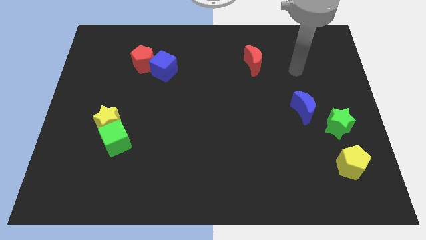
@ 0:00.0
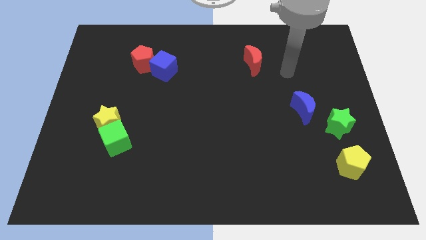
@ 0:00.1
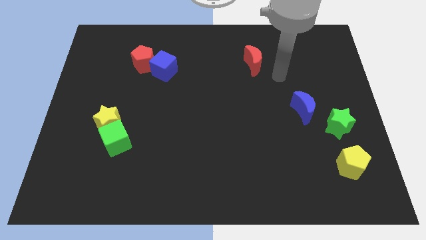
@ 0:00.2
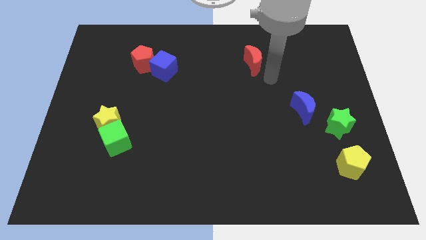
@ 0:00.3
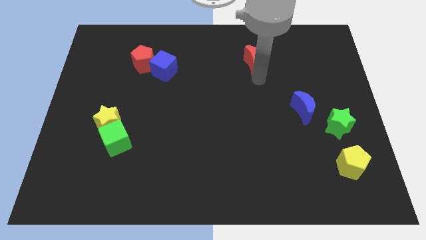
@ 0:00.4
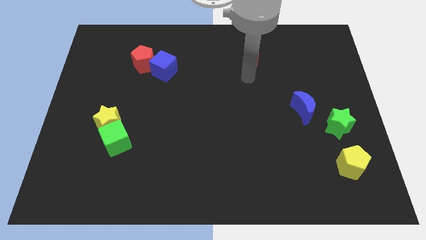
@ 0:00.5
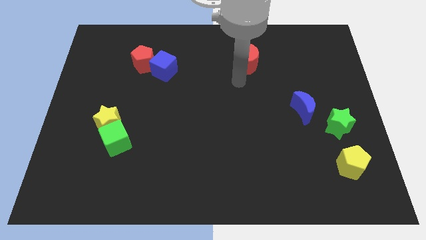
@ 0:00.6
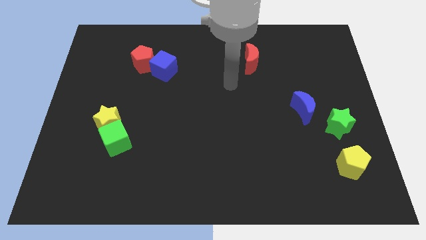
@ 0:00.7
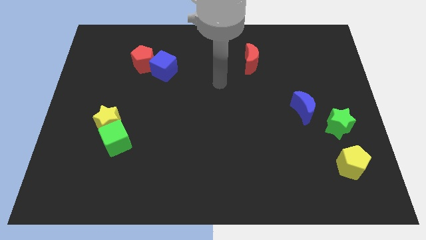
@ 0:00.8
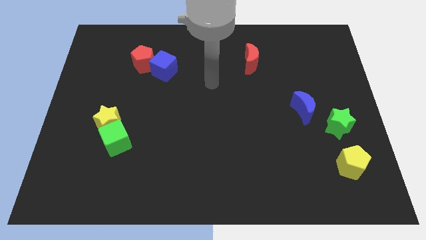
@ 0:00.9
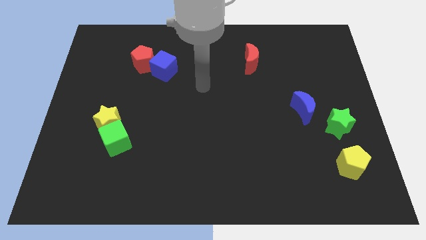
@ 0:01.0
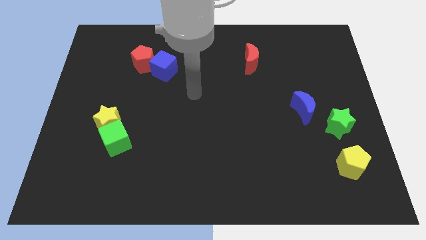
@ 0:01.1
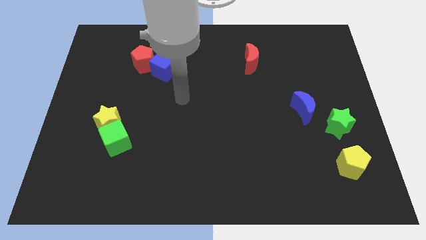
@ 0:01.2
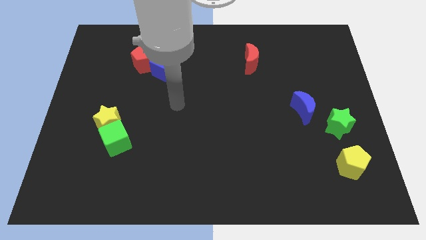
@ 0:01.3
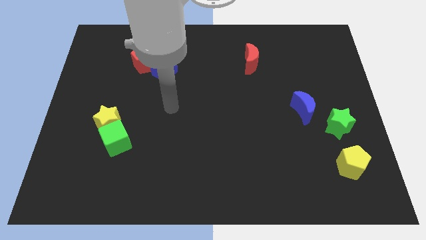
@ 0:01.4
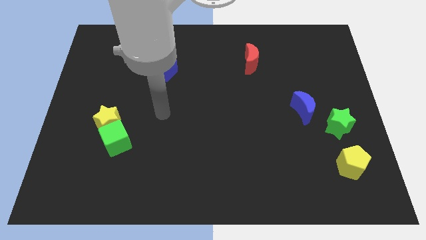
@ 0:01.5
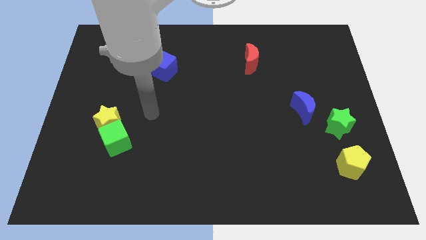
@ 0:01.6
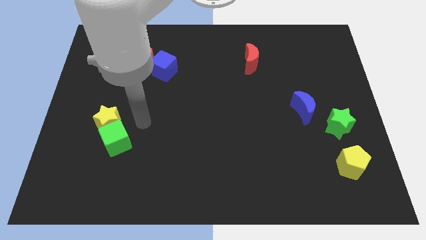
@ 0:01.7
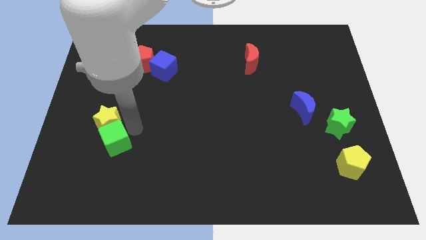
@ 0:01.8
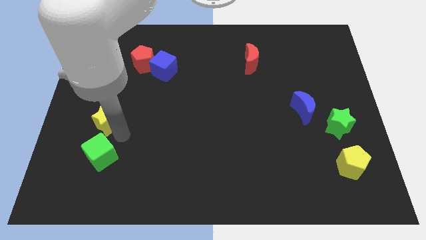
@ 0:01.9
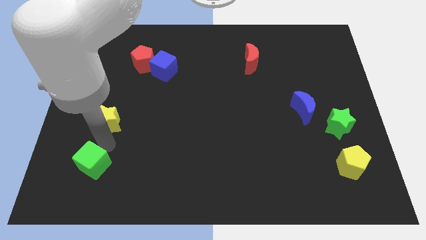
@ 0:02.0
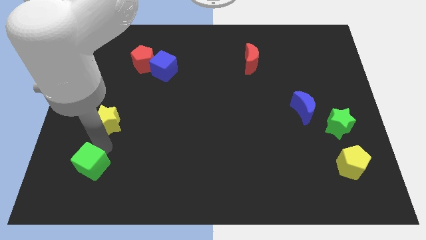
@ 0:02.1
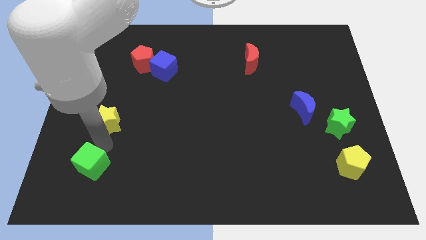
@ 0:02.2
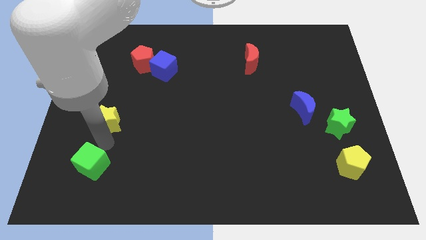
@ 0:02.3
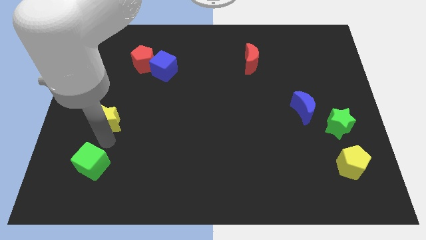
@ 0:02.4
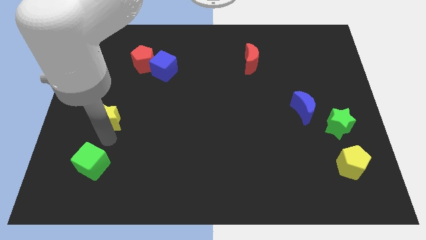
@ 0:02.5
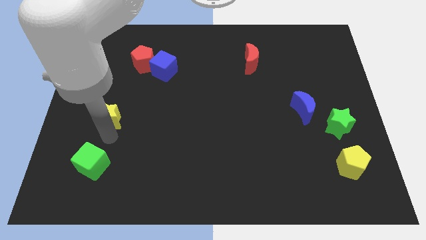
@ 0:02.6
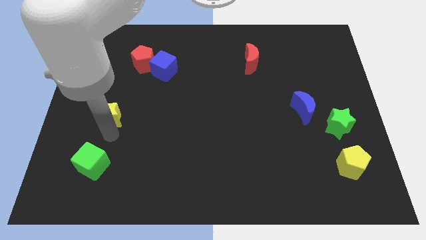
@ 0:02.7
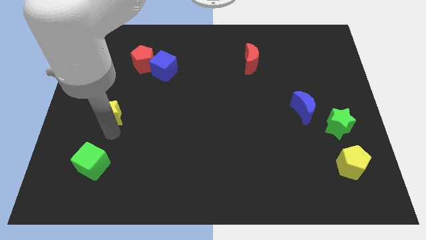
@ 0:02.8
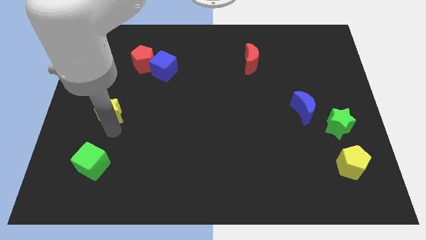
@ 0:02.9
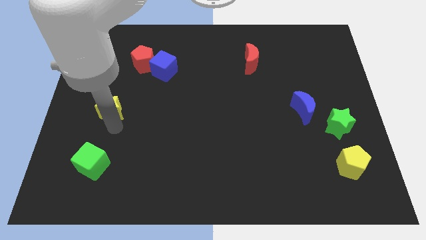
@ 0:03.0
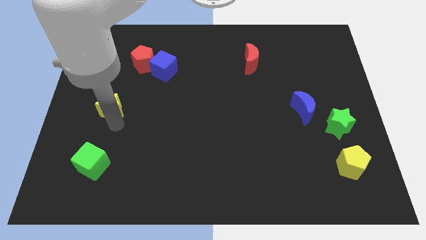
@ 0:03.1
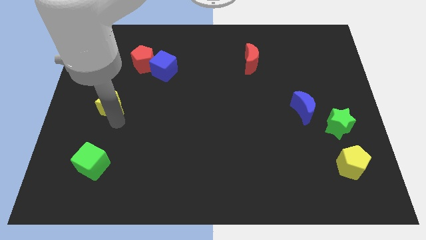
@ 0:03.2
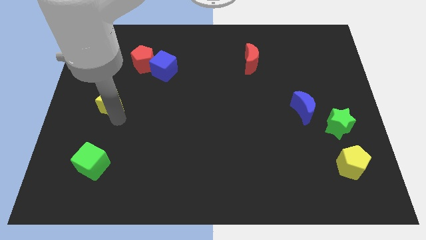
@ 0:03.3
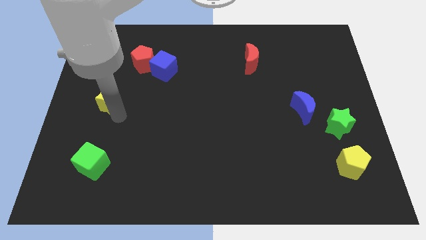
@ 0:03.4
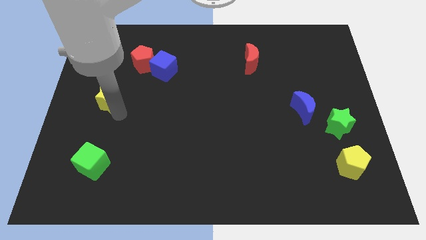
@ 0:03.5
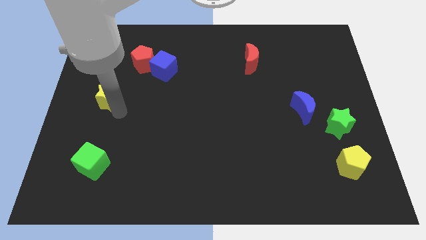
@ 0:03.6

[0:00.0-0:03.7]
slightly move the yellow star up

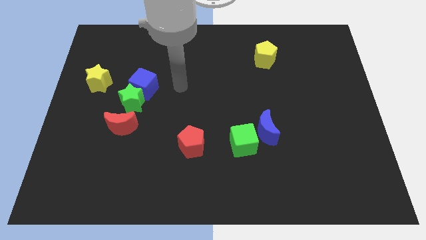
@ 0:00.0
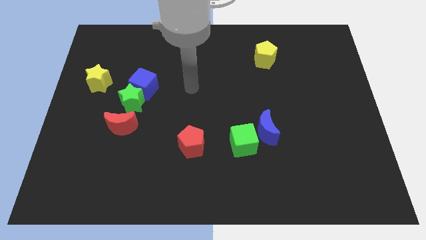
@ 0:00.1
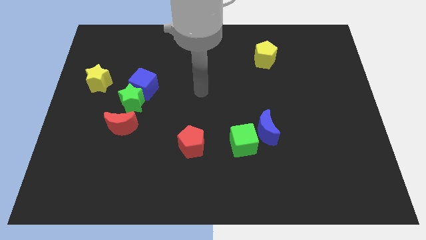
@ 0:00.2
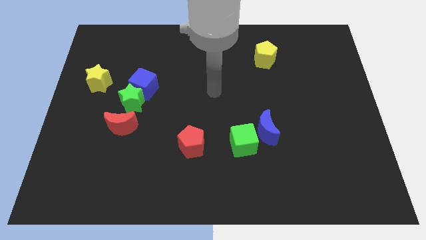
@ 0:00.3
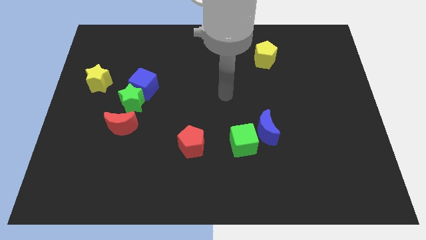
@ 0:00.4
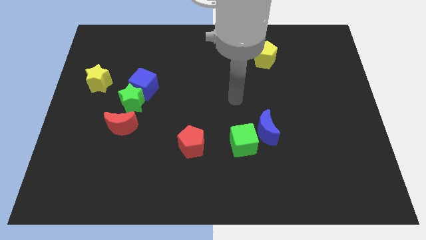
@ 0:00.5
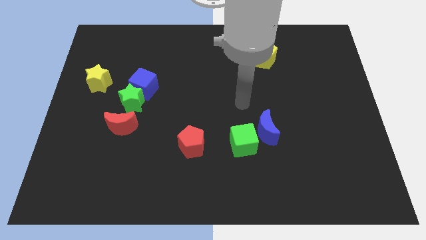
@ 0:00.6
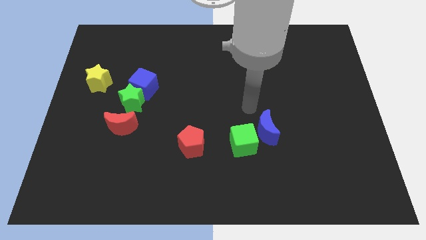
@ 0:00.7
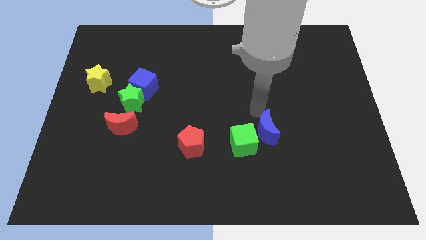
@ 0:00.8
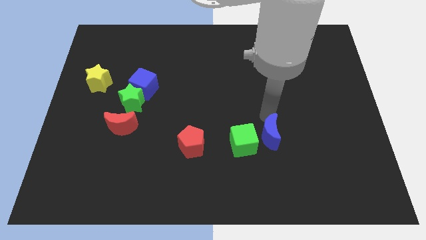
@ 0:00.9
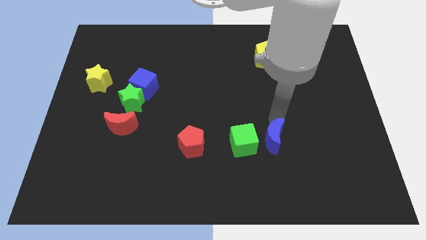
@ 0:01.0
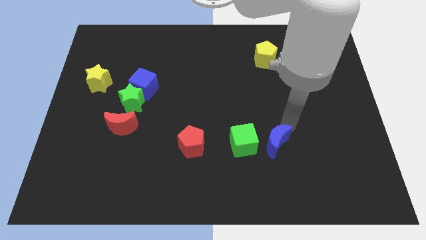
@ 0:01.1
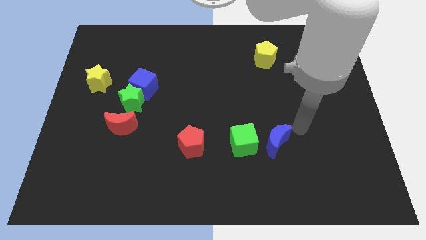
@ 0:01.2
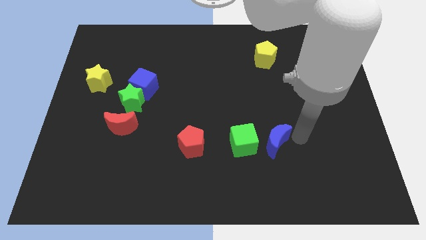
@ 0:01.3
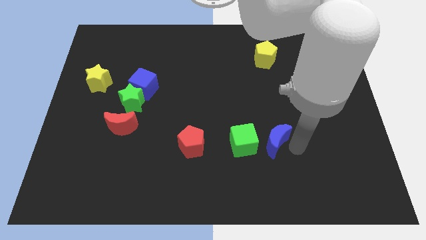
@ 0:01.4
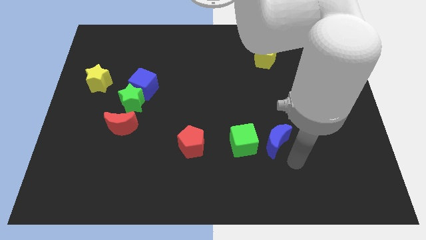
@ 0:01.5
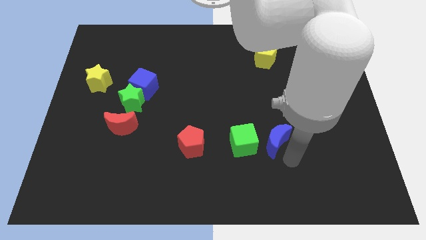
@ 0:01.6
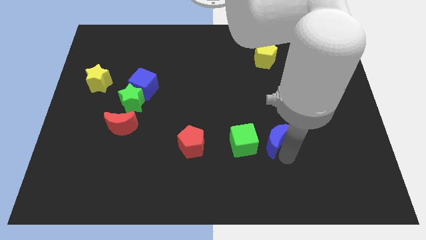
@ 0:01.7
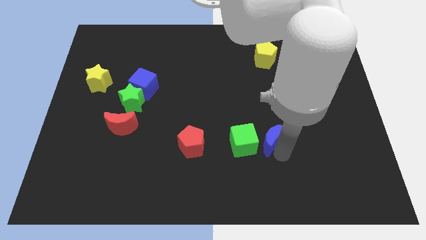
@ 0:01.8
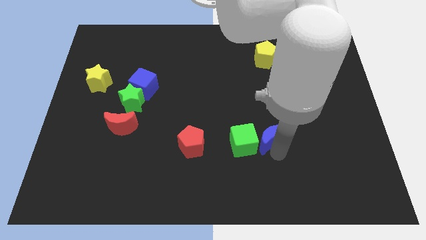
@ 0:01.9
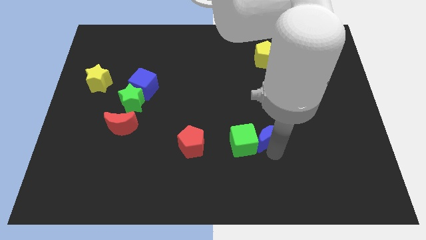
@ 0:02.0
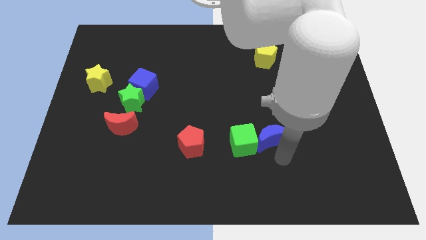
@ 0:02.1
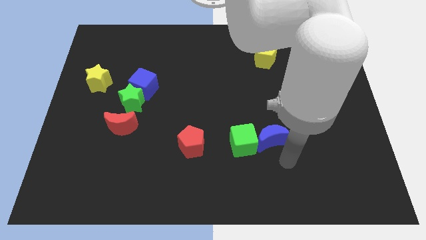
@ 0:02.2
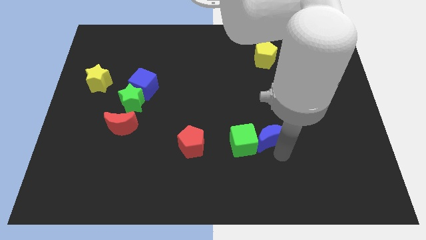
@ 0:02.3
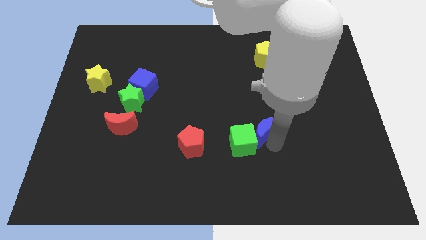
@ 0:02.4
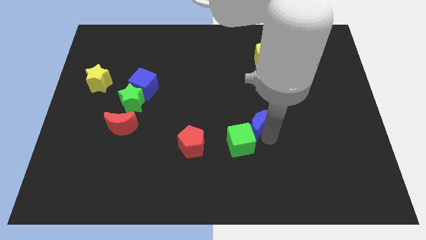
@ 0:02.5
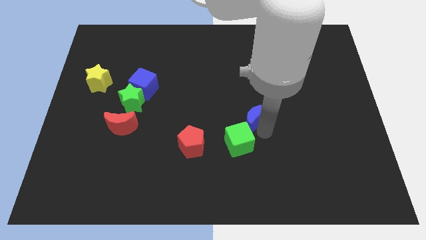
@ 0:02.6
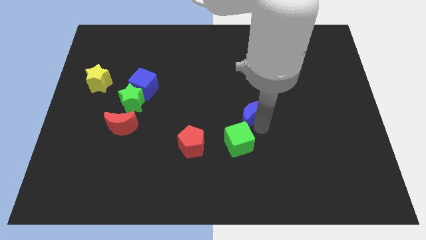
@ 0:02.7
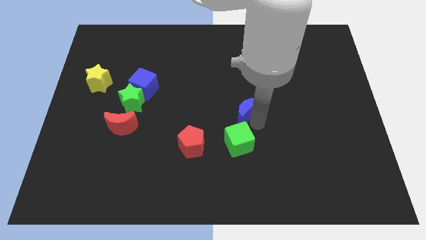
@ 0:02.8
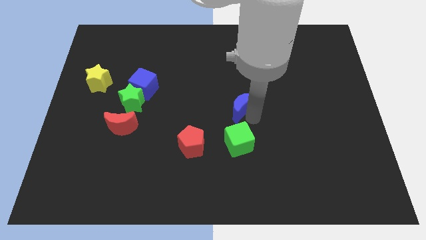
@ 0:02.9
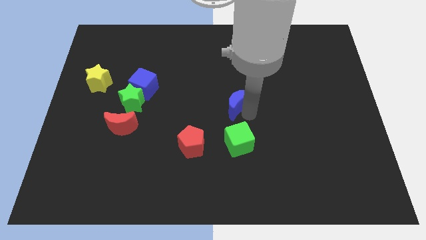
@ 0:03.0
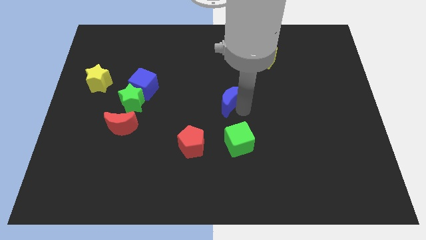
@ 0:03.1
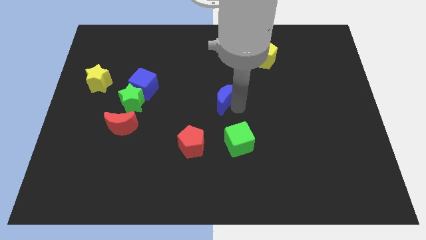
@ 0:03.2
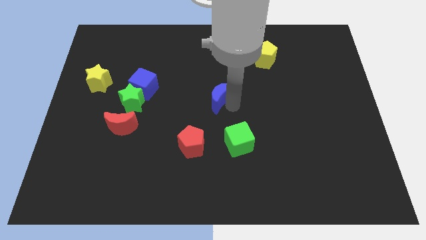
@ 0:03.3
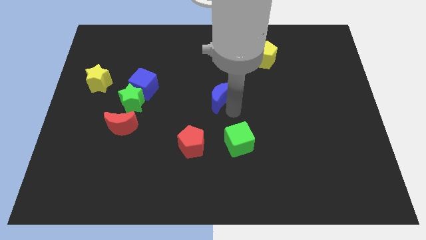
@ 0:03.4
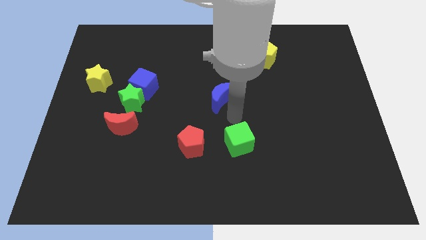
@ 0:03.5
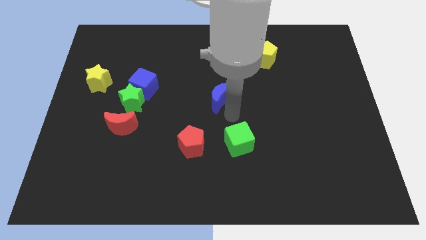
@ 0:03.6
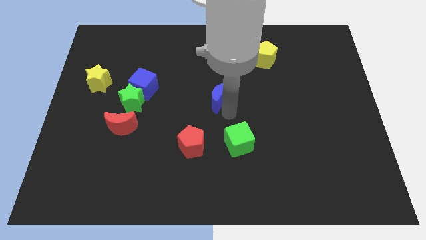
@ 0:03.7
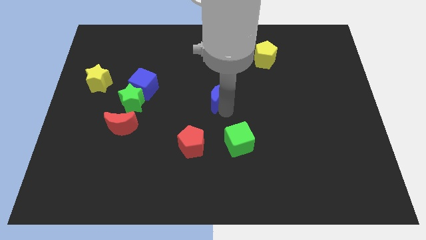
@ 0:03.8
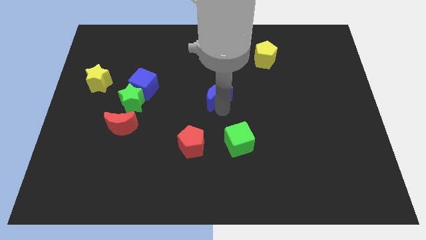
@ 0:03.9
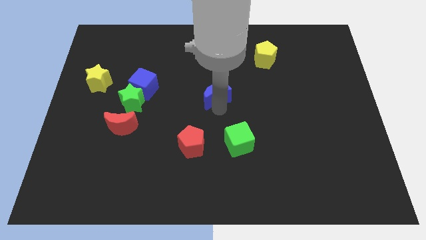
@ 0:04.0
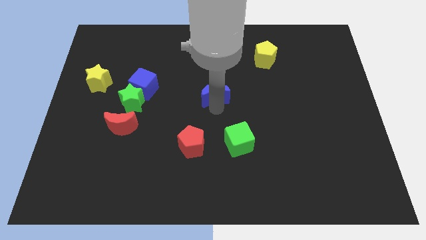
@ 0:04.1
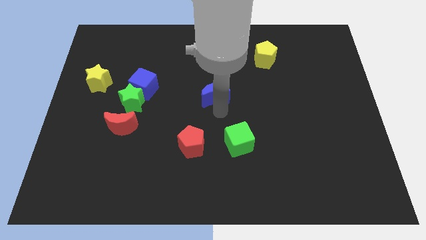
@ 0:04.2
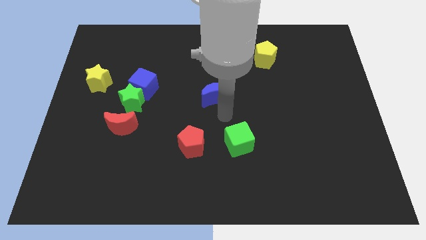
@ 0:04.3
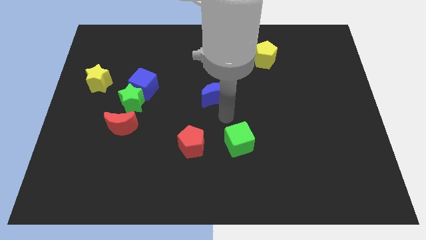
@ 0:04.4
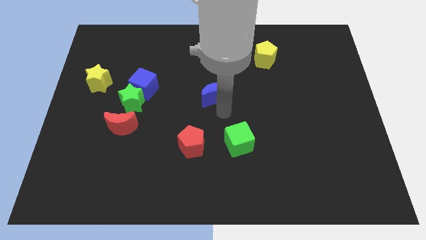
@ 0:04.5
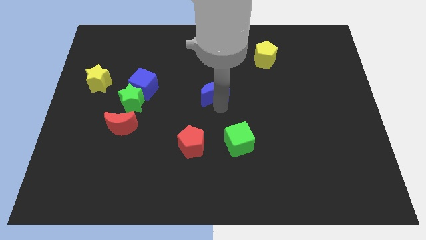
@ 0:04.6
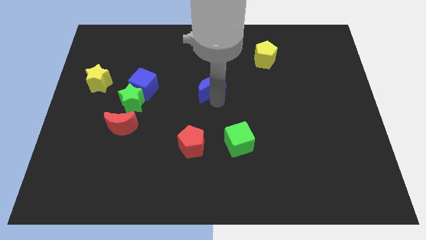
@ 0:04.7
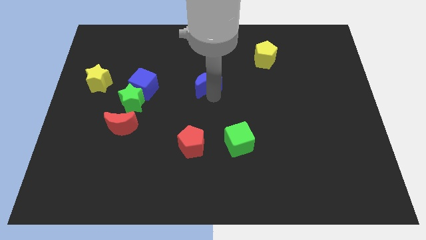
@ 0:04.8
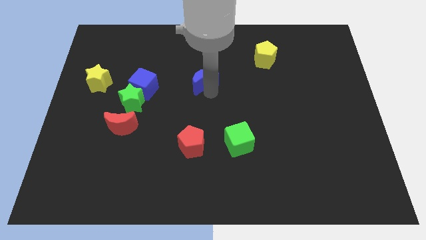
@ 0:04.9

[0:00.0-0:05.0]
push the blue moon upwards and then to the left
